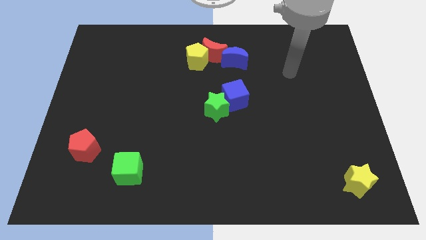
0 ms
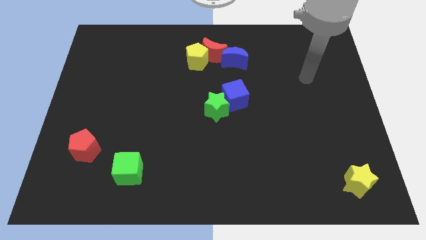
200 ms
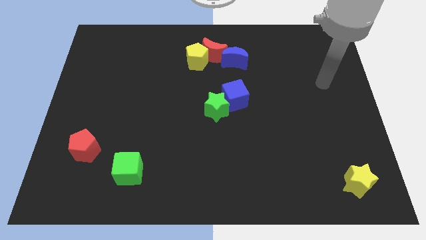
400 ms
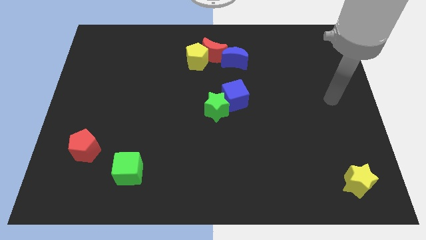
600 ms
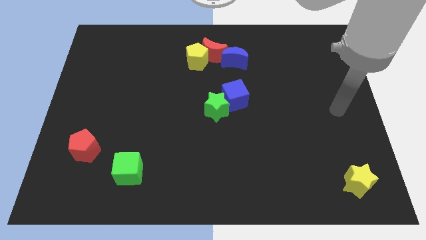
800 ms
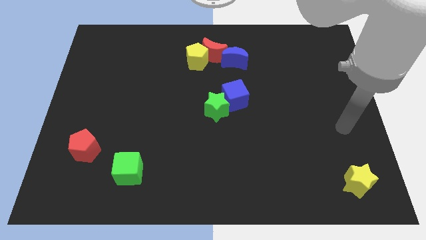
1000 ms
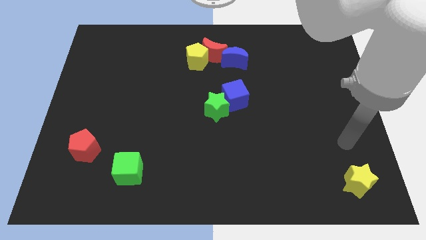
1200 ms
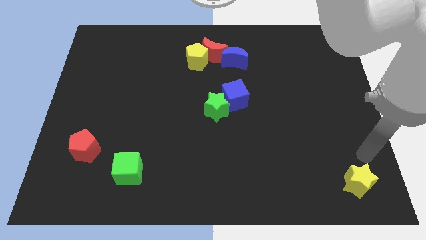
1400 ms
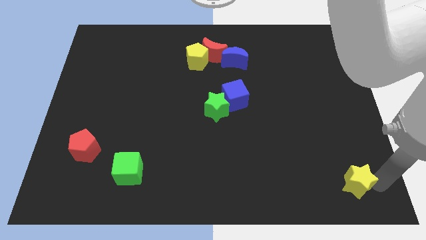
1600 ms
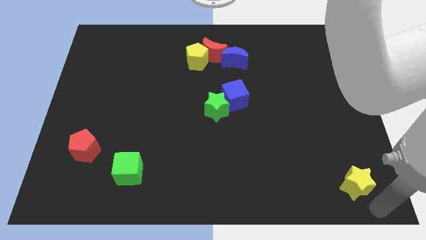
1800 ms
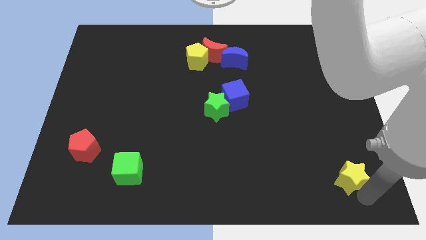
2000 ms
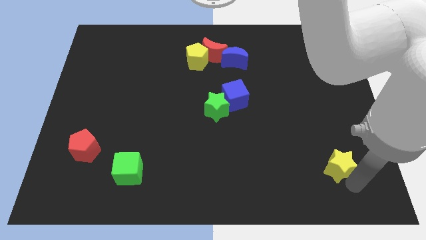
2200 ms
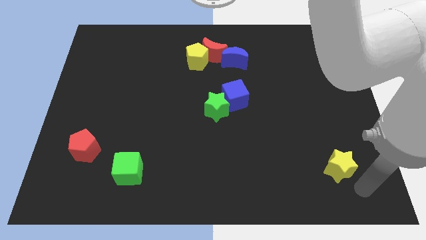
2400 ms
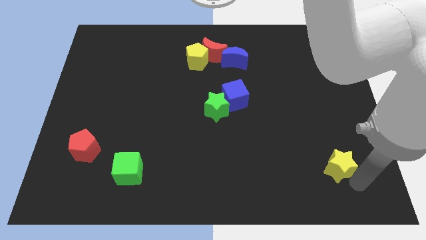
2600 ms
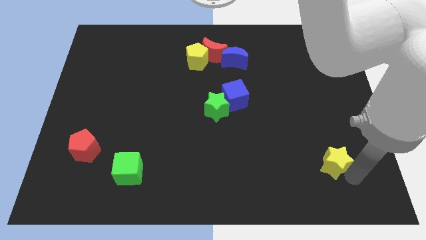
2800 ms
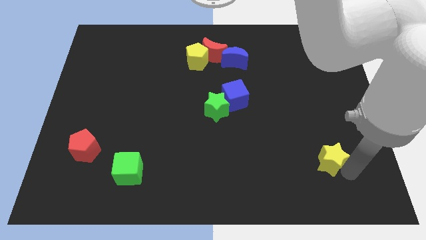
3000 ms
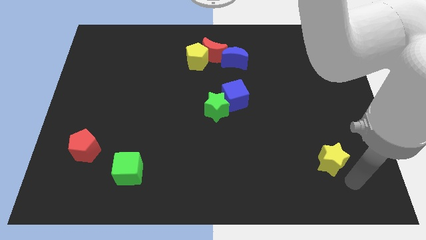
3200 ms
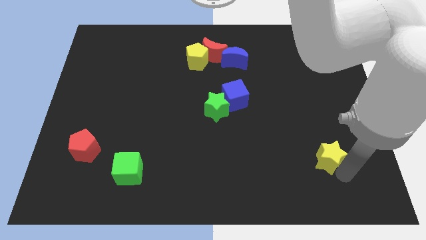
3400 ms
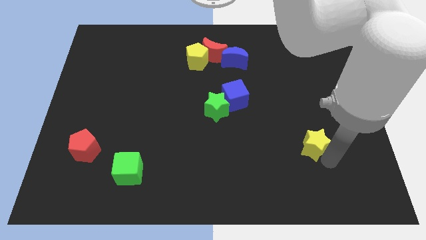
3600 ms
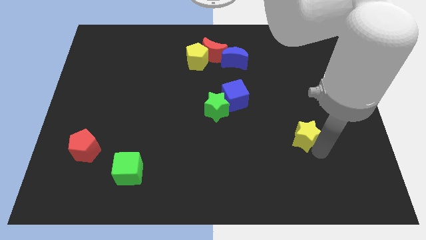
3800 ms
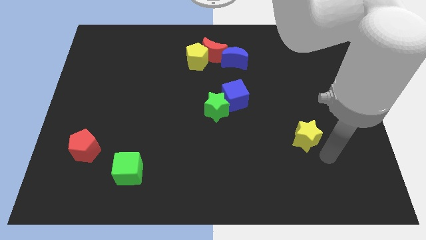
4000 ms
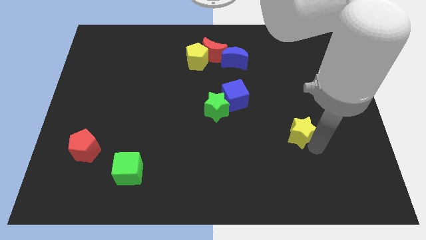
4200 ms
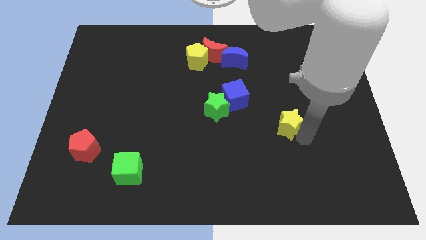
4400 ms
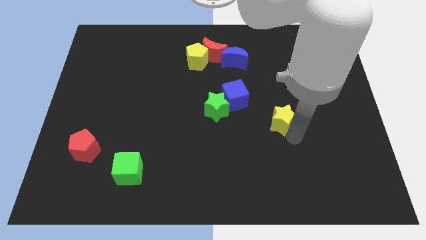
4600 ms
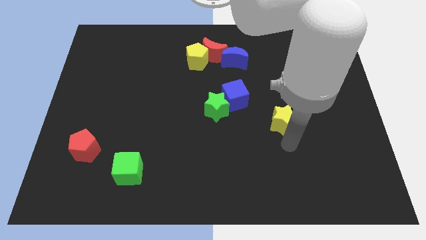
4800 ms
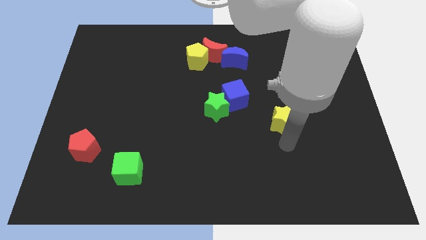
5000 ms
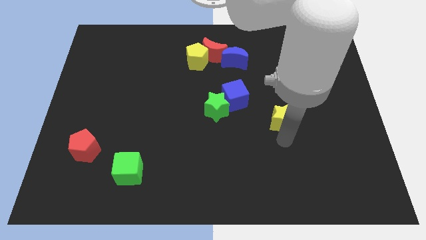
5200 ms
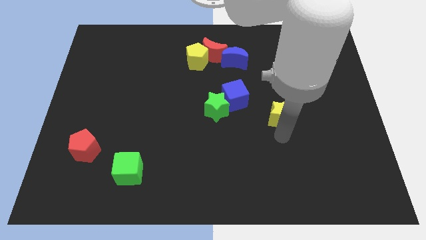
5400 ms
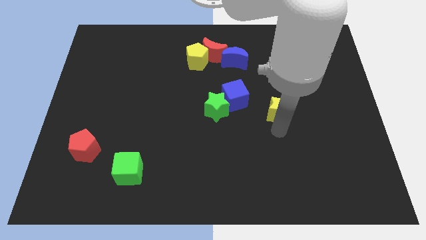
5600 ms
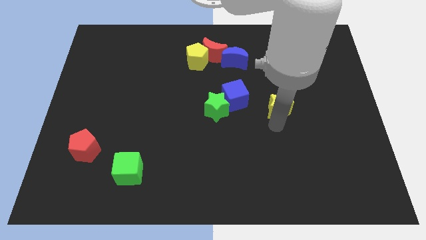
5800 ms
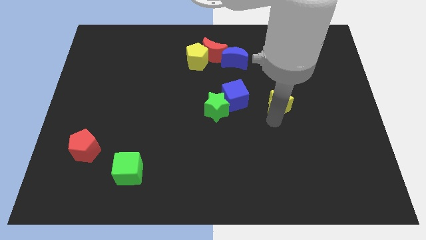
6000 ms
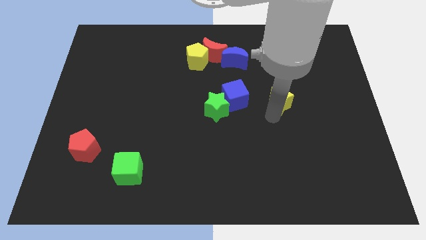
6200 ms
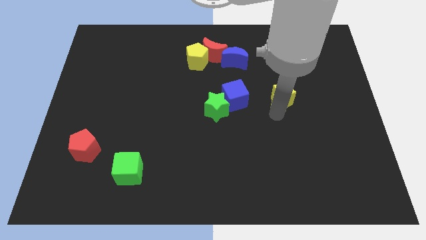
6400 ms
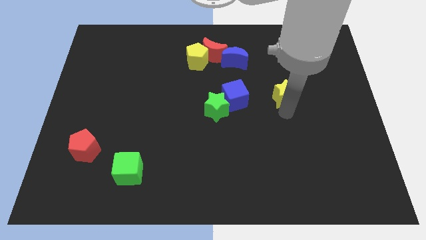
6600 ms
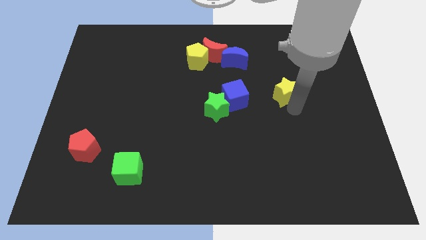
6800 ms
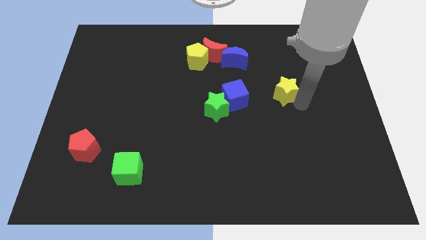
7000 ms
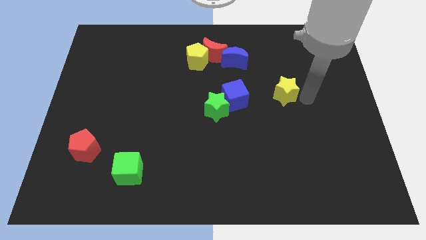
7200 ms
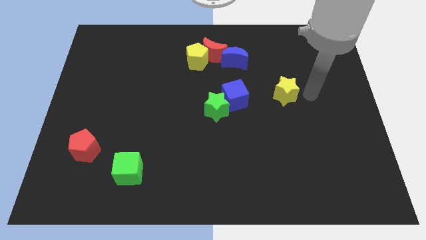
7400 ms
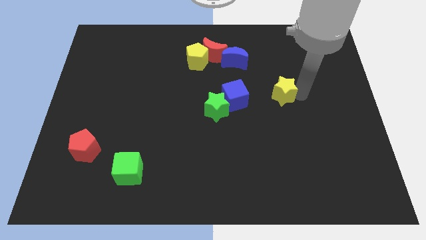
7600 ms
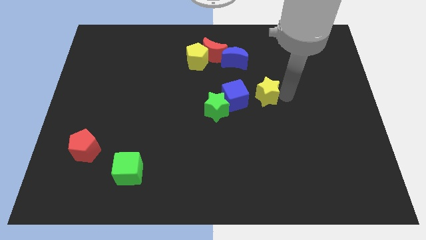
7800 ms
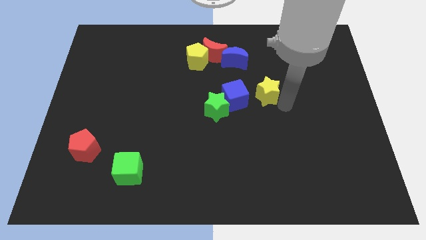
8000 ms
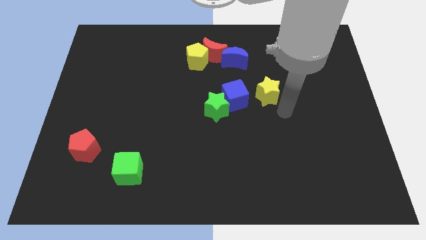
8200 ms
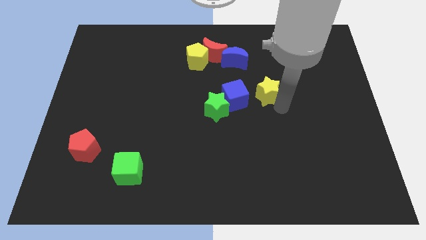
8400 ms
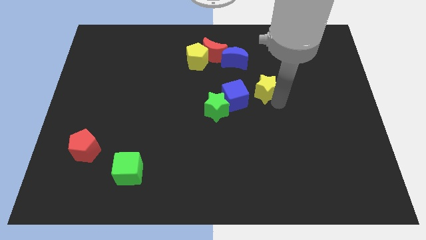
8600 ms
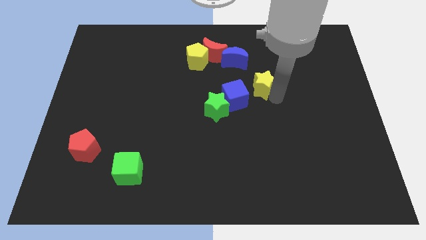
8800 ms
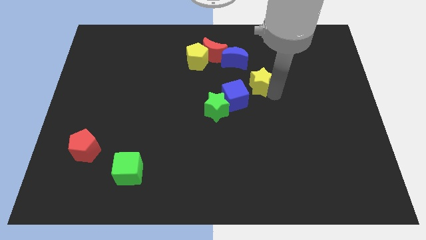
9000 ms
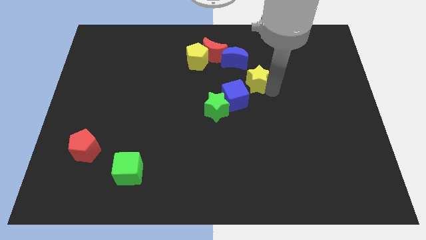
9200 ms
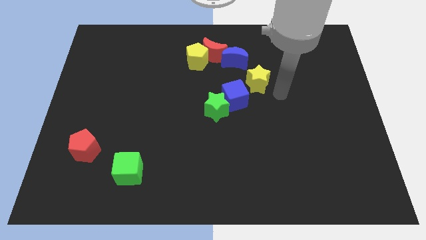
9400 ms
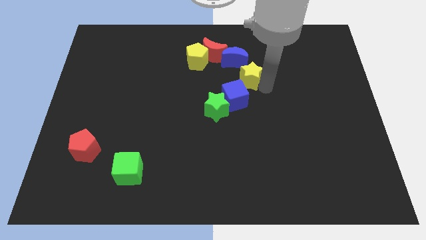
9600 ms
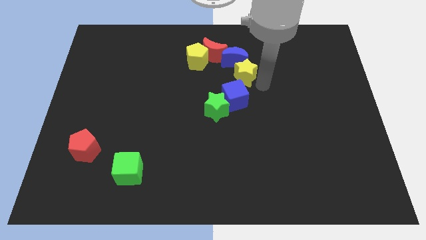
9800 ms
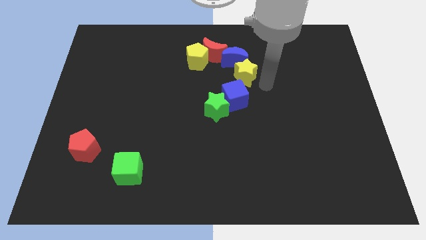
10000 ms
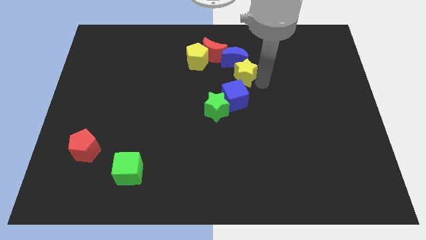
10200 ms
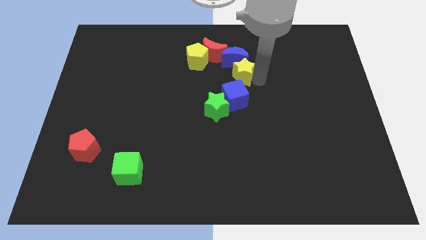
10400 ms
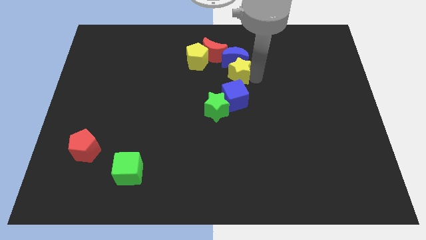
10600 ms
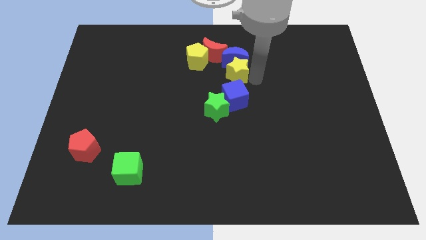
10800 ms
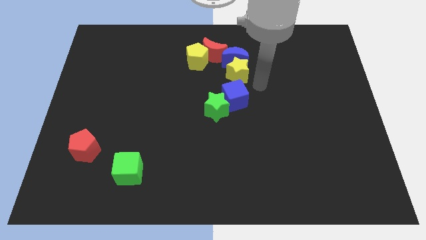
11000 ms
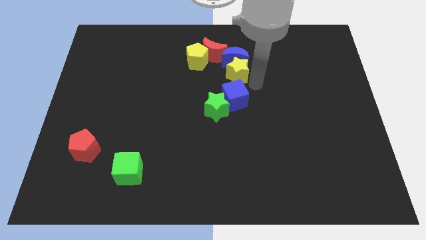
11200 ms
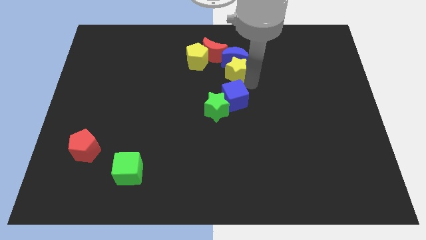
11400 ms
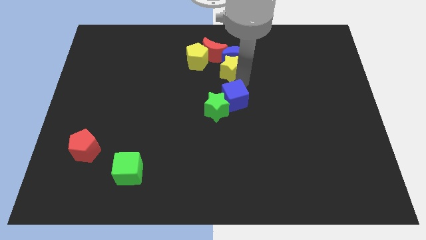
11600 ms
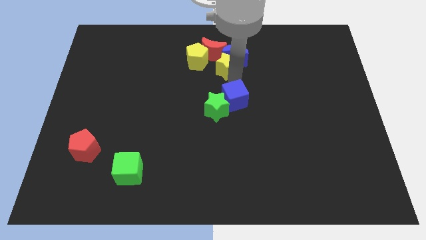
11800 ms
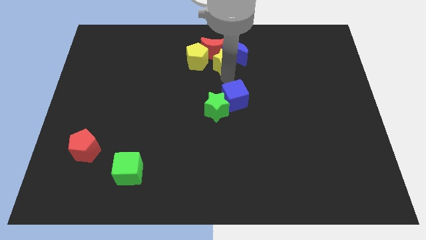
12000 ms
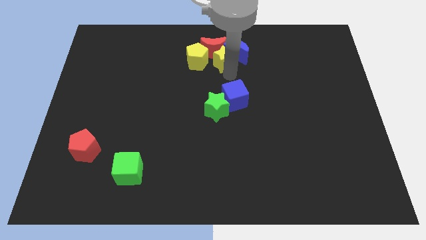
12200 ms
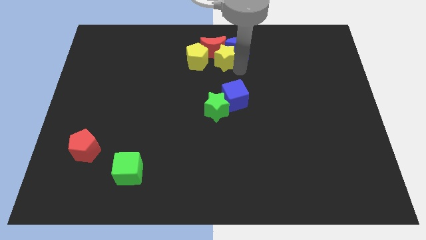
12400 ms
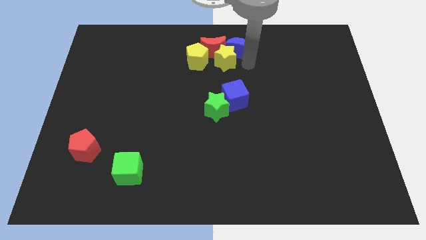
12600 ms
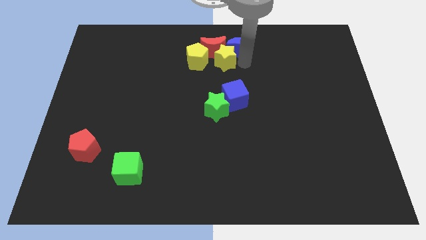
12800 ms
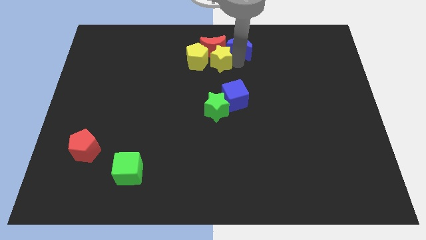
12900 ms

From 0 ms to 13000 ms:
push the yellow star next to the yellow pentagon

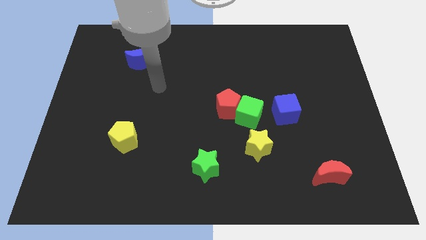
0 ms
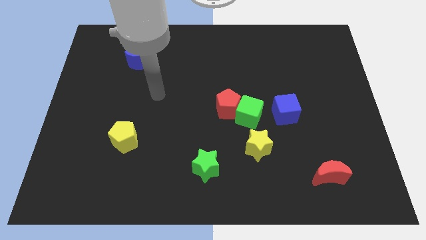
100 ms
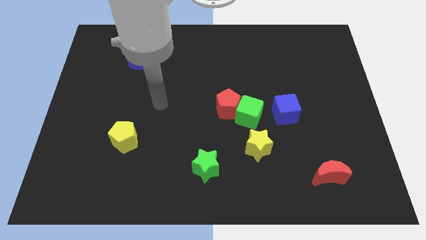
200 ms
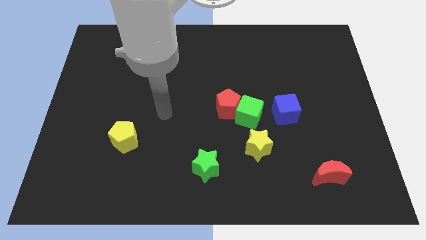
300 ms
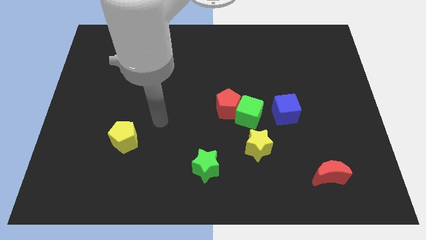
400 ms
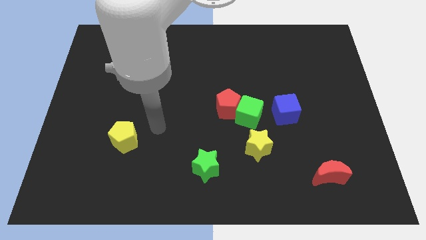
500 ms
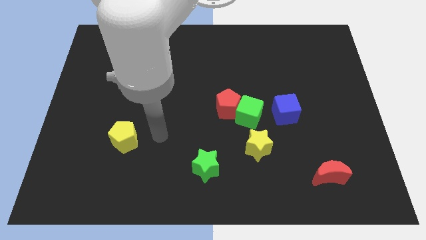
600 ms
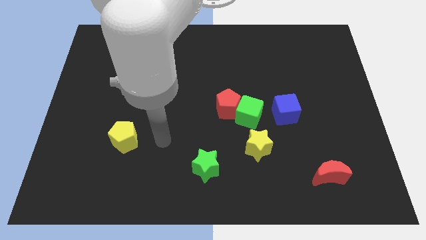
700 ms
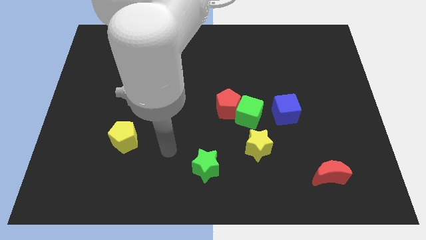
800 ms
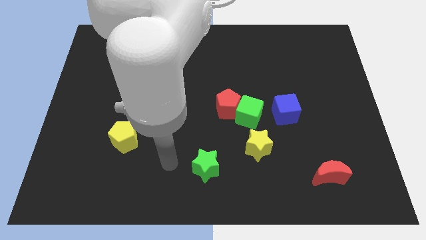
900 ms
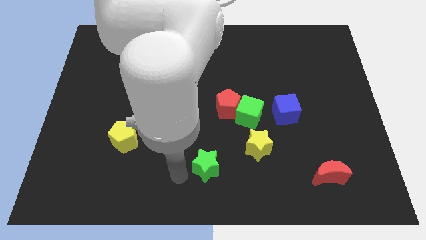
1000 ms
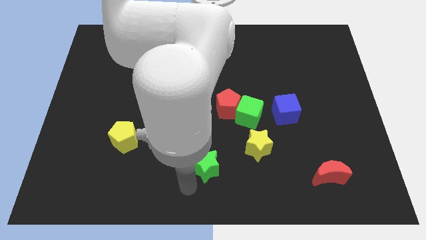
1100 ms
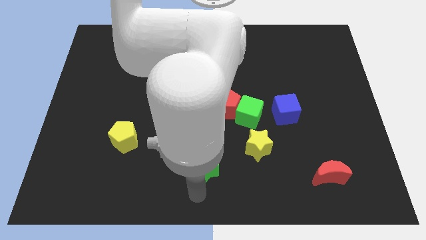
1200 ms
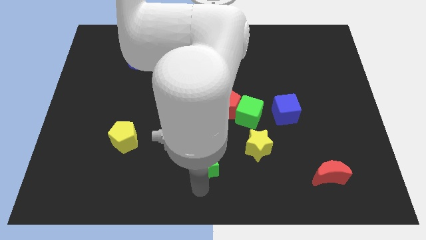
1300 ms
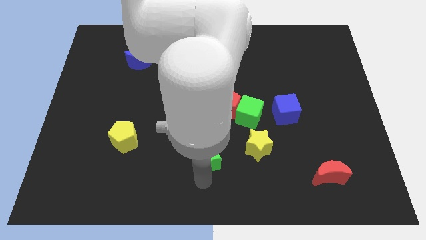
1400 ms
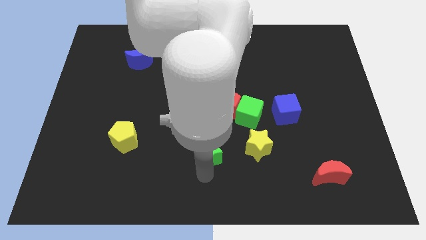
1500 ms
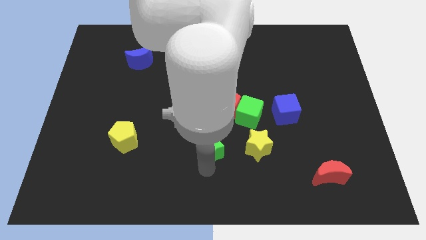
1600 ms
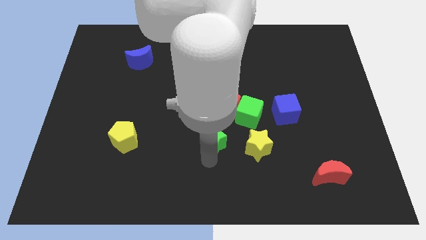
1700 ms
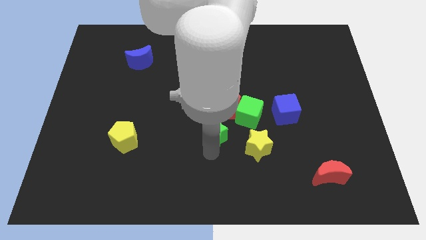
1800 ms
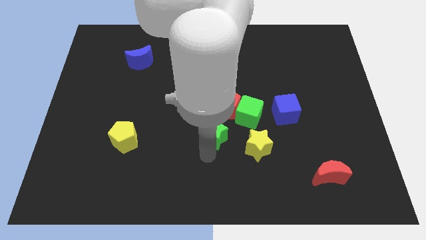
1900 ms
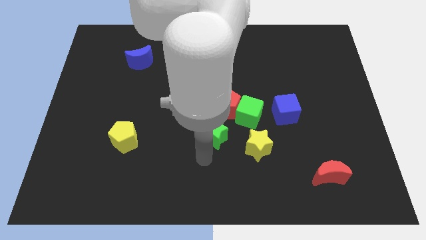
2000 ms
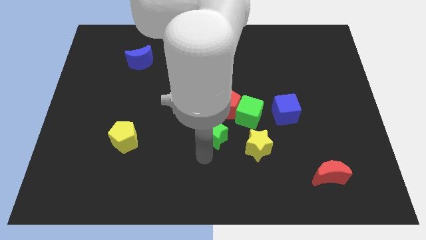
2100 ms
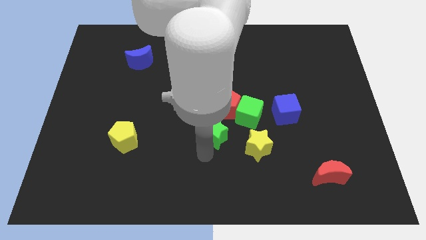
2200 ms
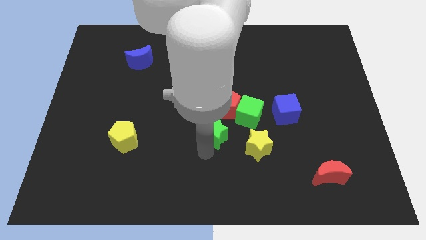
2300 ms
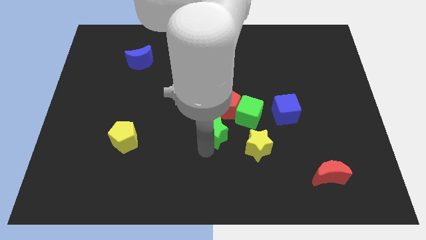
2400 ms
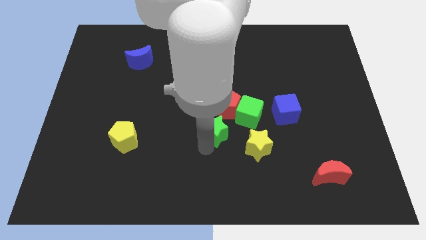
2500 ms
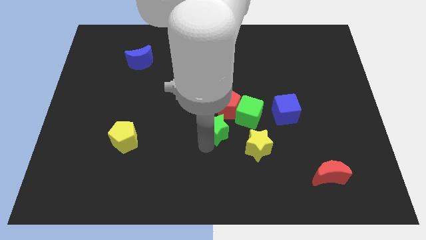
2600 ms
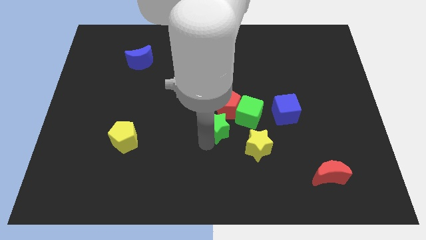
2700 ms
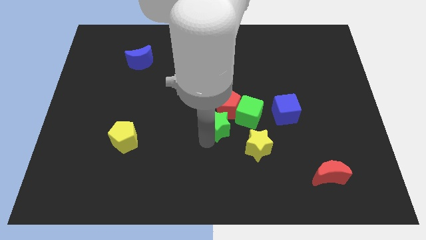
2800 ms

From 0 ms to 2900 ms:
put the green star towards the red pentagon
